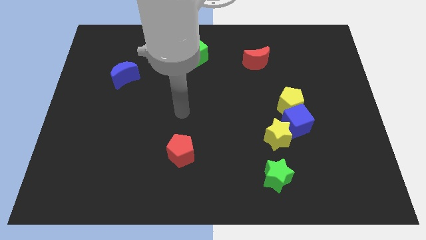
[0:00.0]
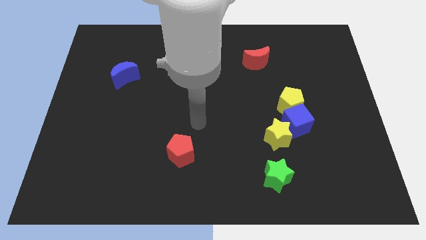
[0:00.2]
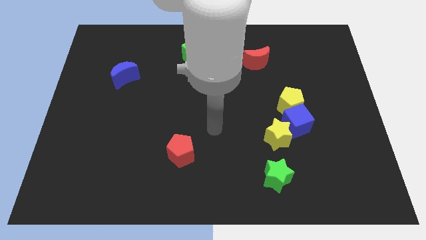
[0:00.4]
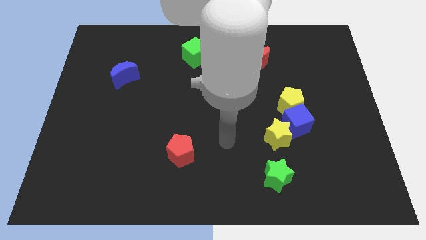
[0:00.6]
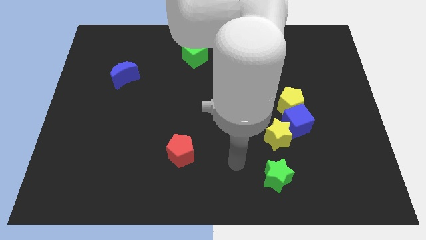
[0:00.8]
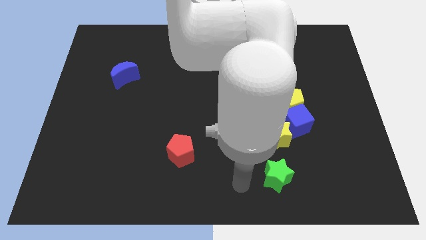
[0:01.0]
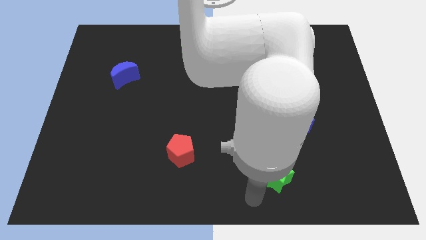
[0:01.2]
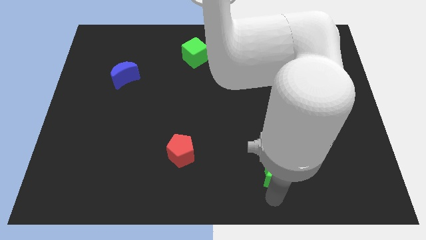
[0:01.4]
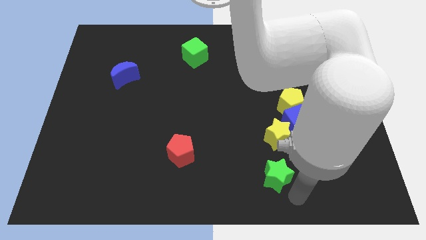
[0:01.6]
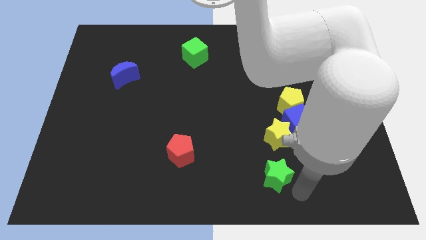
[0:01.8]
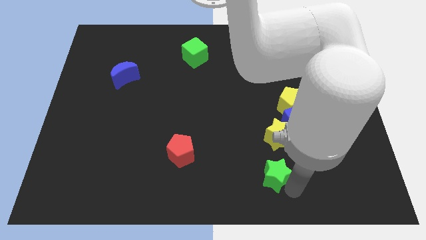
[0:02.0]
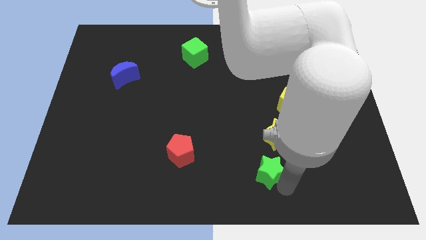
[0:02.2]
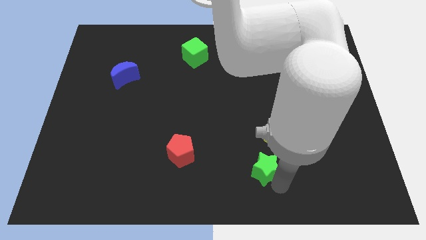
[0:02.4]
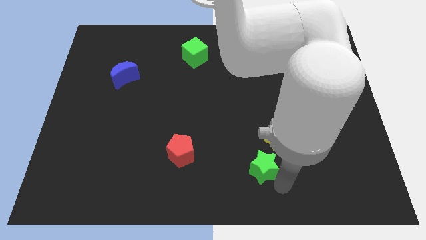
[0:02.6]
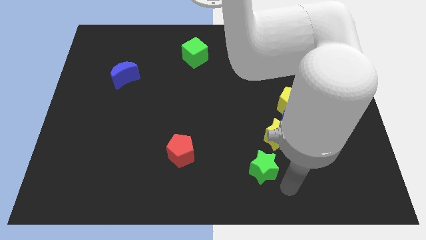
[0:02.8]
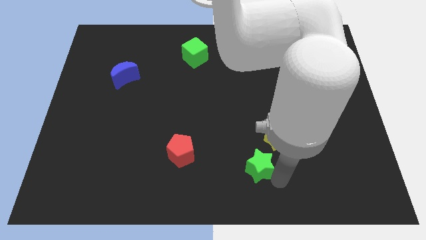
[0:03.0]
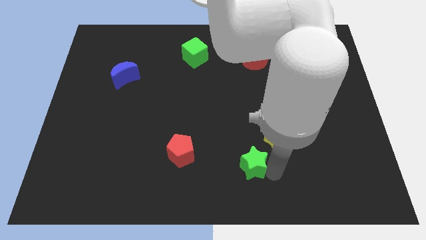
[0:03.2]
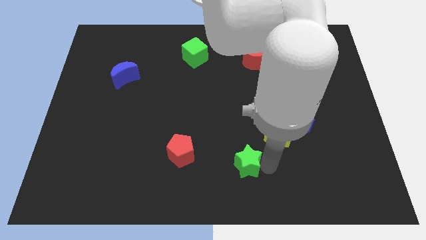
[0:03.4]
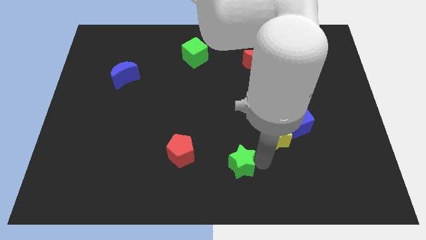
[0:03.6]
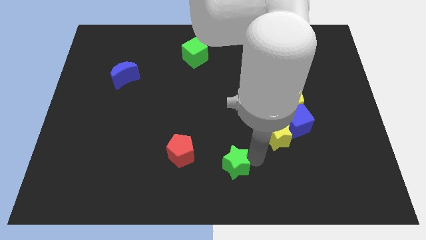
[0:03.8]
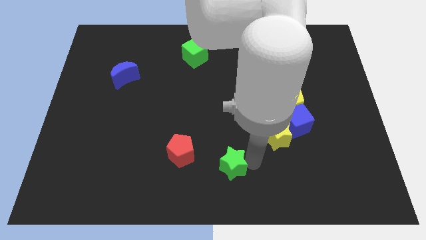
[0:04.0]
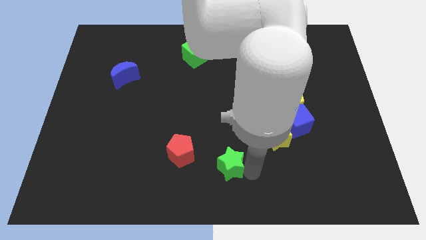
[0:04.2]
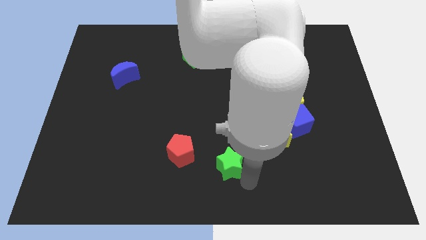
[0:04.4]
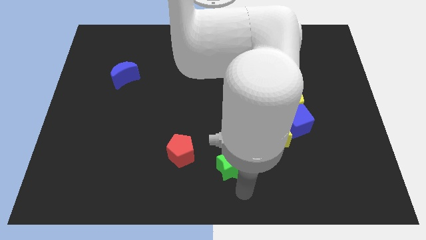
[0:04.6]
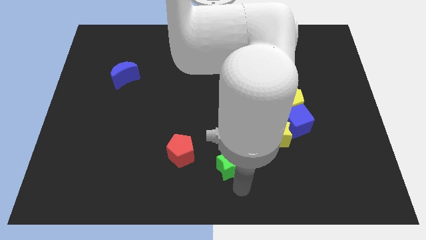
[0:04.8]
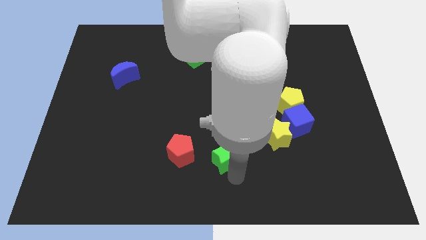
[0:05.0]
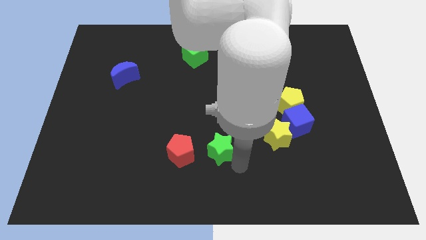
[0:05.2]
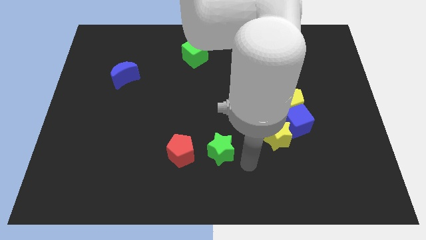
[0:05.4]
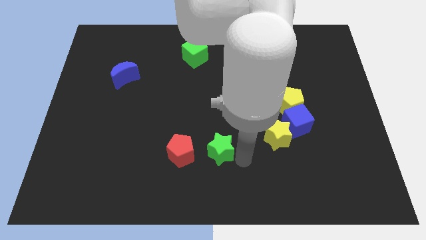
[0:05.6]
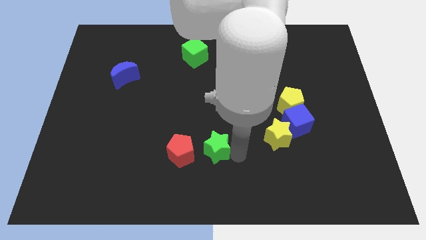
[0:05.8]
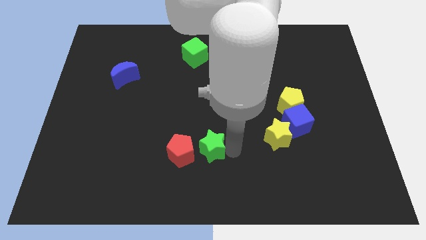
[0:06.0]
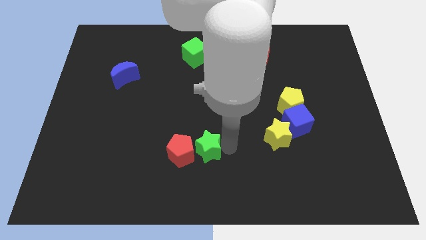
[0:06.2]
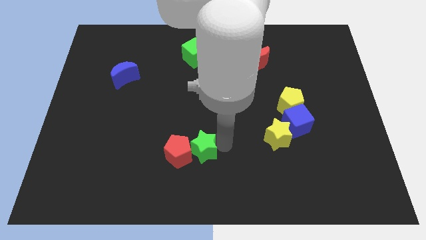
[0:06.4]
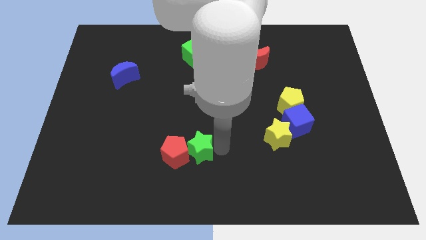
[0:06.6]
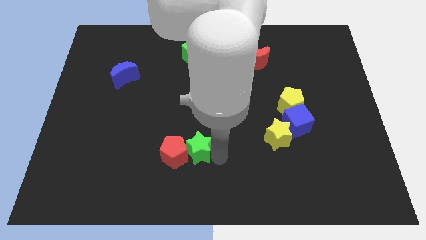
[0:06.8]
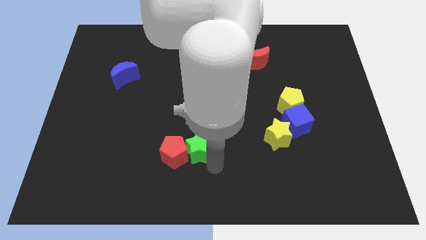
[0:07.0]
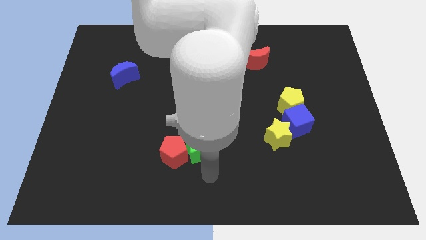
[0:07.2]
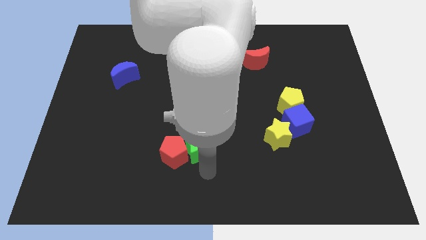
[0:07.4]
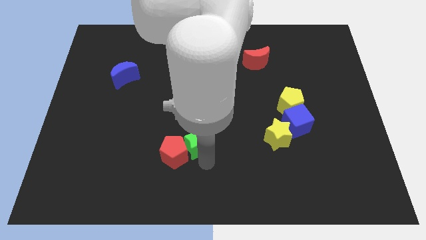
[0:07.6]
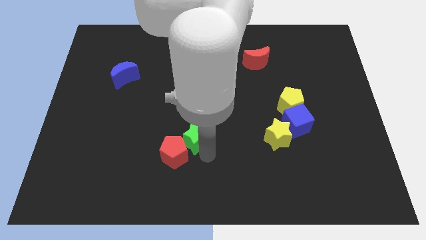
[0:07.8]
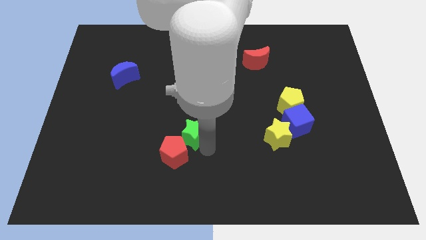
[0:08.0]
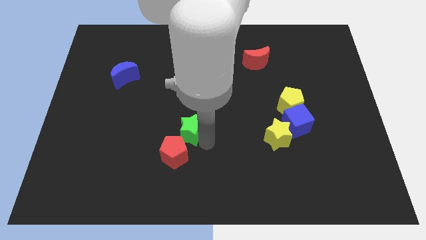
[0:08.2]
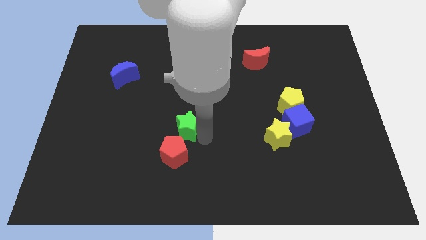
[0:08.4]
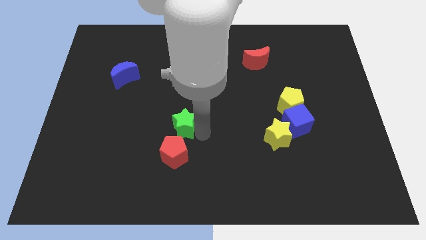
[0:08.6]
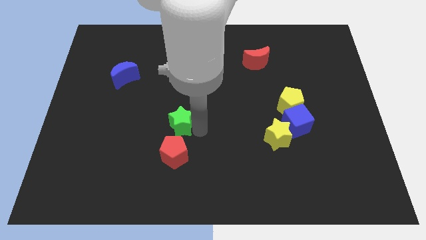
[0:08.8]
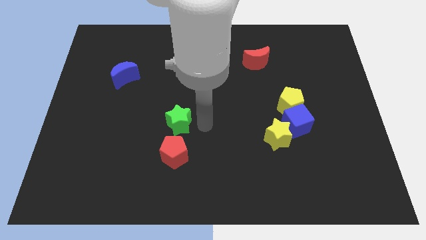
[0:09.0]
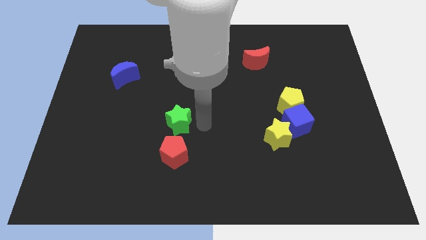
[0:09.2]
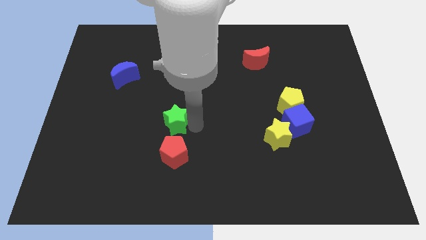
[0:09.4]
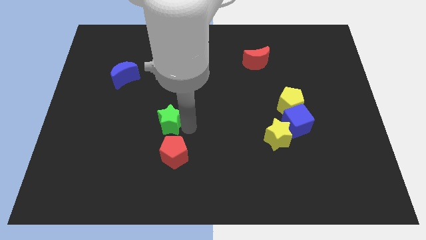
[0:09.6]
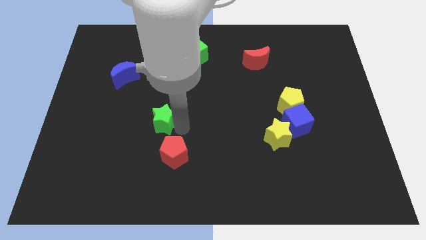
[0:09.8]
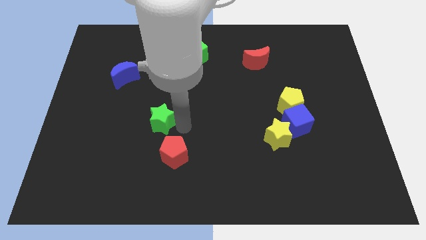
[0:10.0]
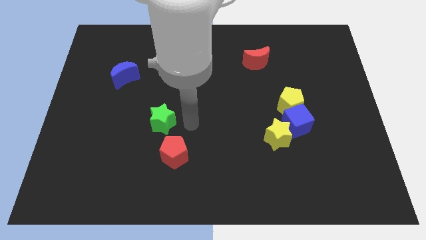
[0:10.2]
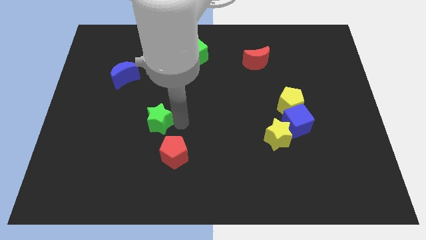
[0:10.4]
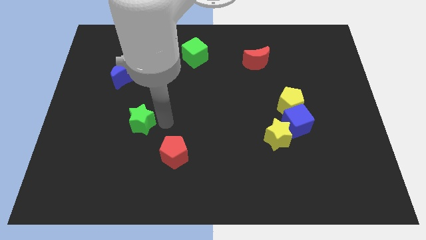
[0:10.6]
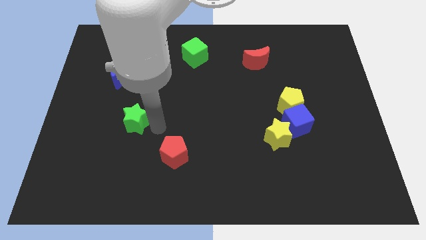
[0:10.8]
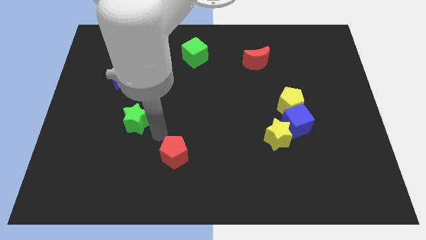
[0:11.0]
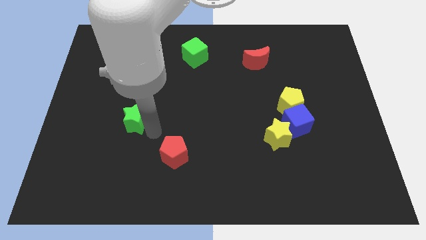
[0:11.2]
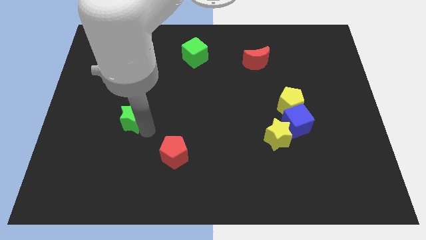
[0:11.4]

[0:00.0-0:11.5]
push the green star below the blue moon
